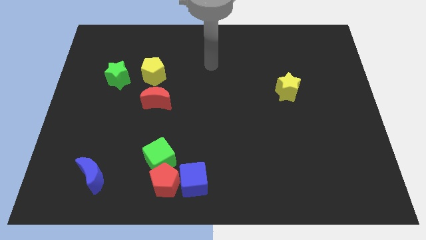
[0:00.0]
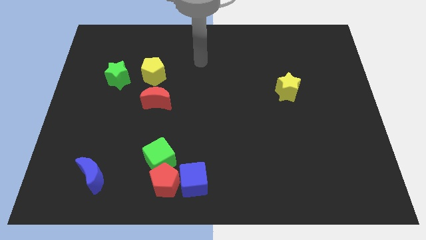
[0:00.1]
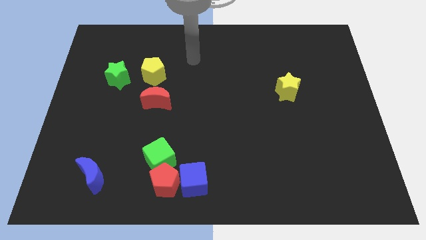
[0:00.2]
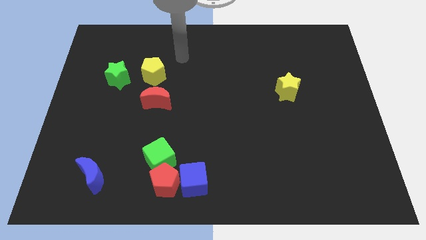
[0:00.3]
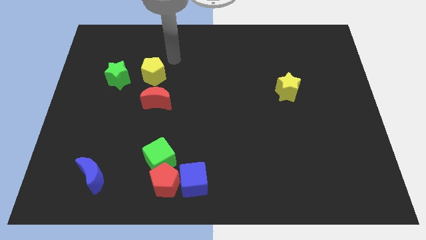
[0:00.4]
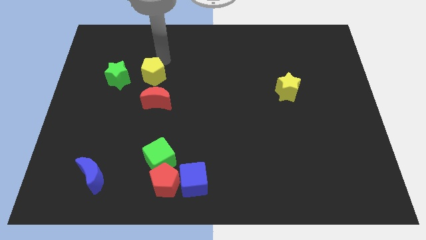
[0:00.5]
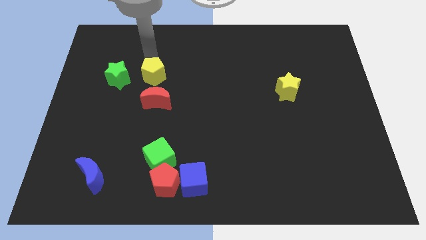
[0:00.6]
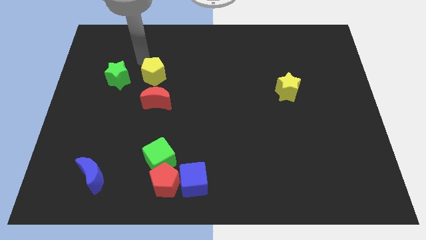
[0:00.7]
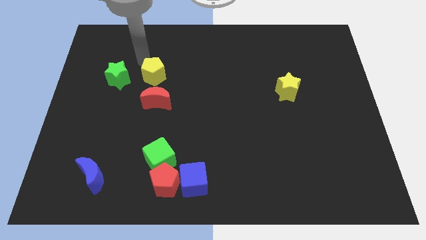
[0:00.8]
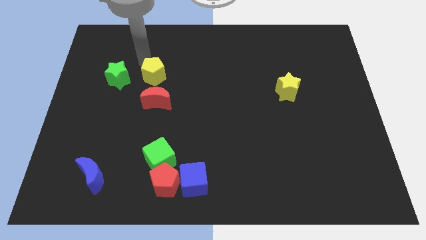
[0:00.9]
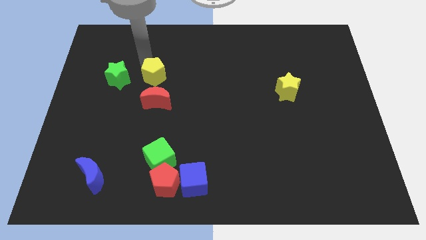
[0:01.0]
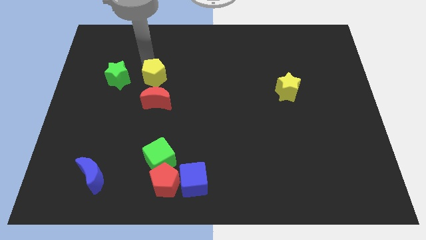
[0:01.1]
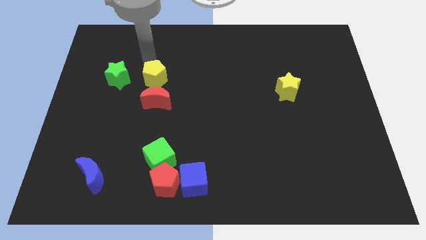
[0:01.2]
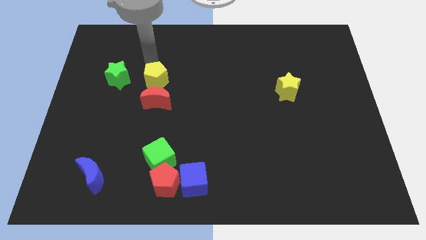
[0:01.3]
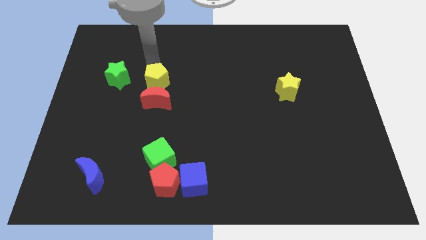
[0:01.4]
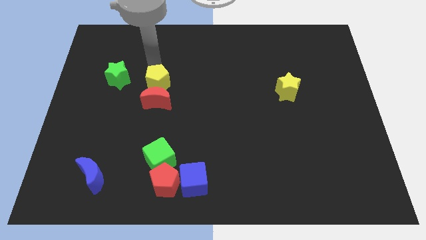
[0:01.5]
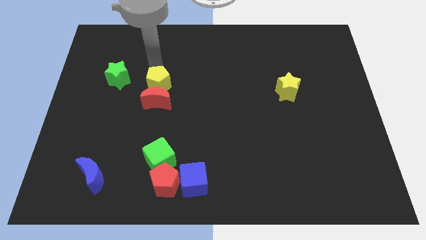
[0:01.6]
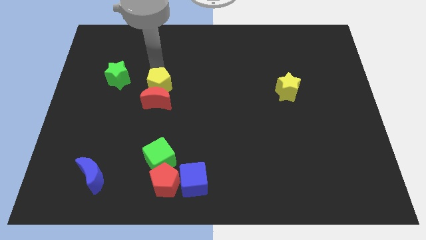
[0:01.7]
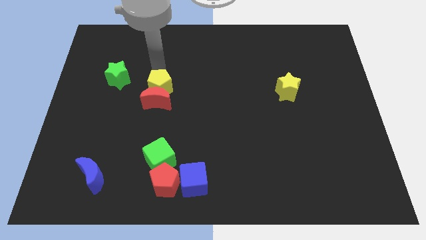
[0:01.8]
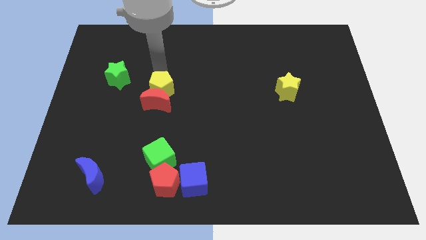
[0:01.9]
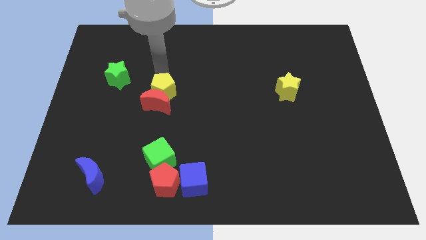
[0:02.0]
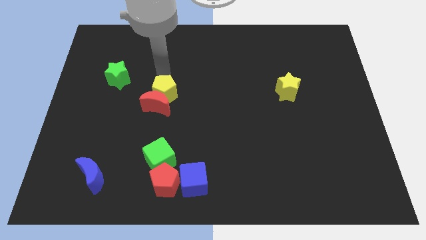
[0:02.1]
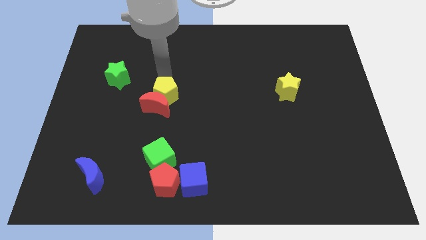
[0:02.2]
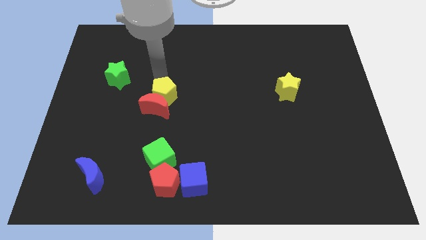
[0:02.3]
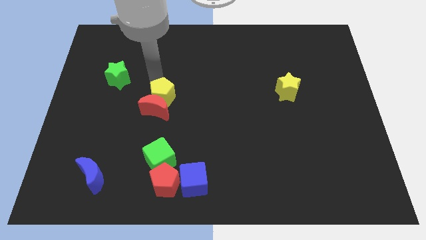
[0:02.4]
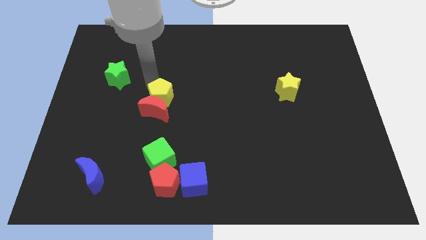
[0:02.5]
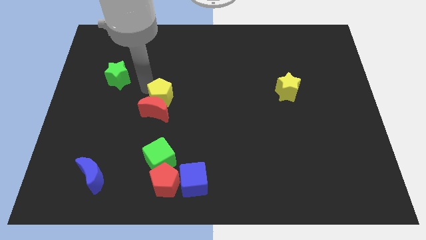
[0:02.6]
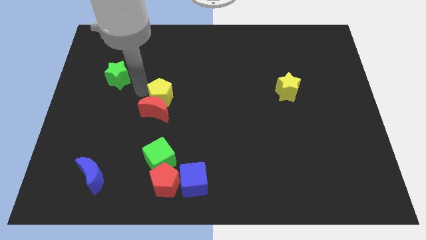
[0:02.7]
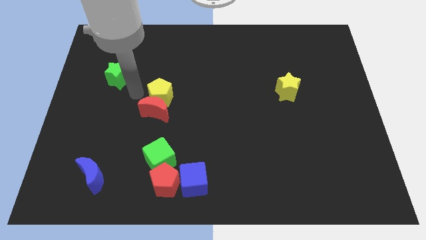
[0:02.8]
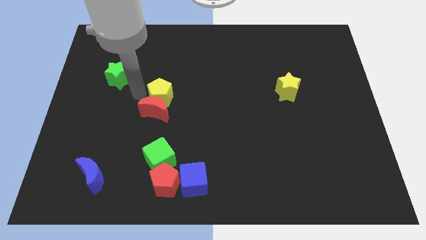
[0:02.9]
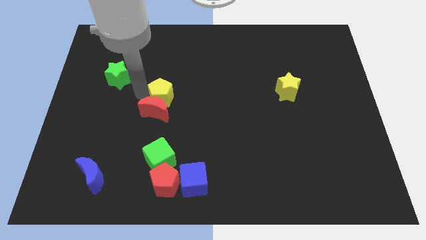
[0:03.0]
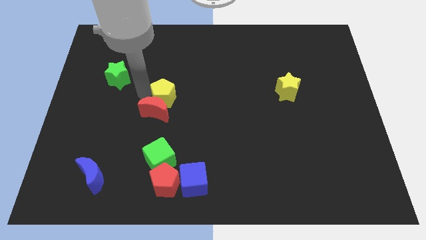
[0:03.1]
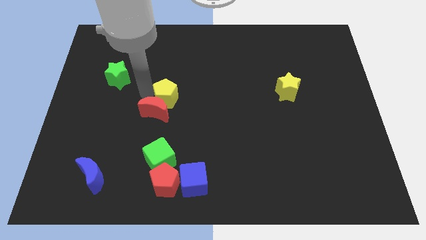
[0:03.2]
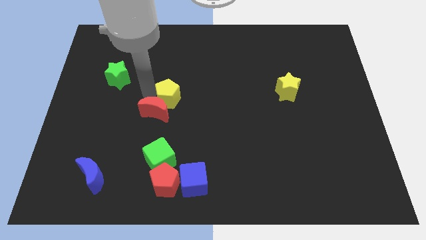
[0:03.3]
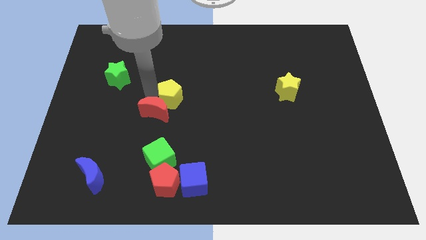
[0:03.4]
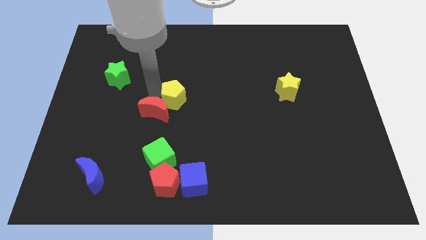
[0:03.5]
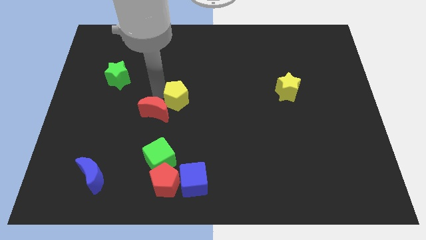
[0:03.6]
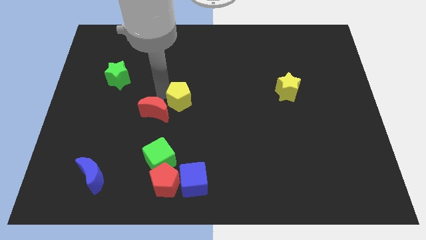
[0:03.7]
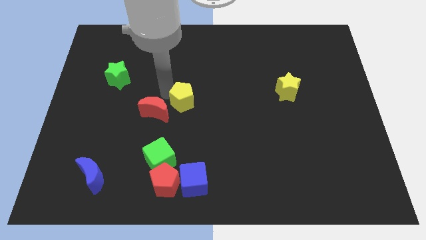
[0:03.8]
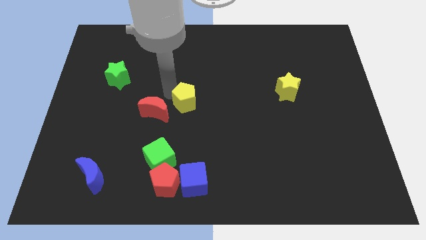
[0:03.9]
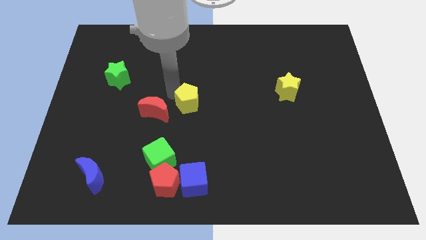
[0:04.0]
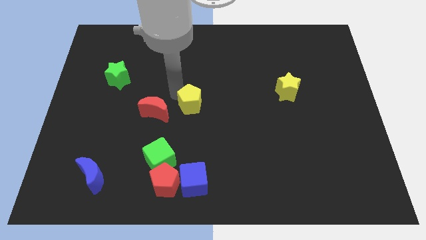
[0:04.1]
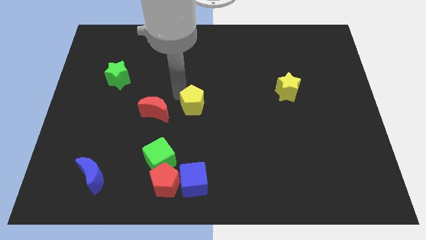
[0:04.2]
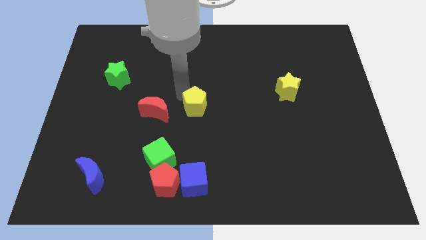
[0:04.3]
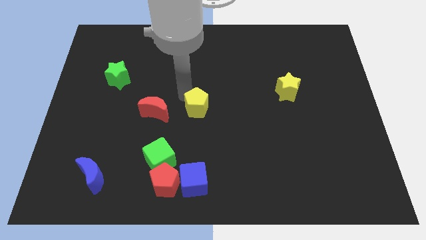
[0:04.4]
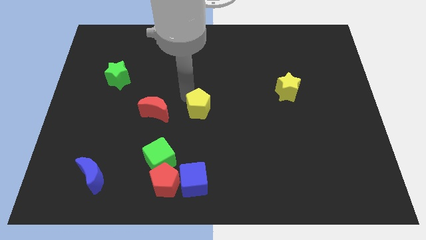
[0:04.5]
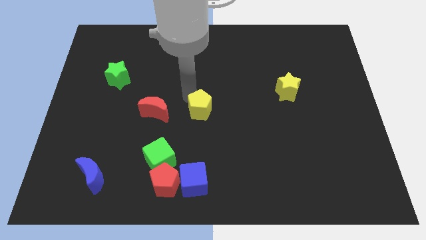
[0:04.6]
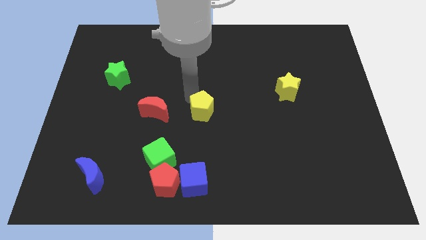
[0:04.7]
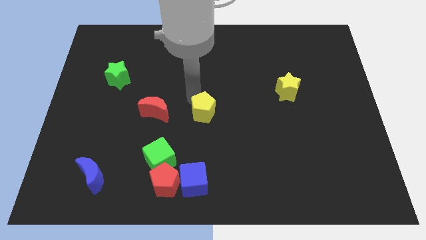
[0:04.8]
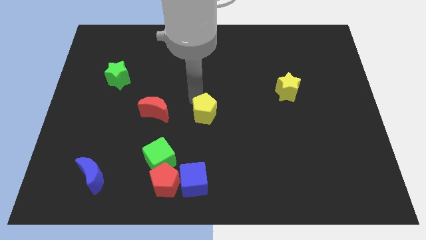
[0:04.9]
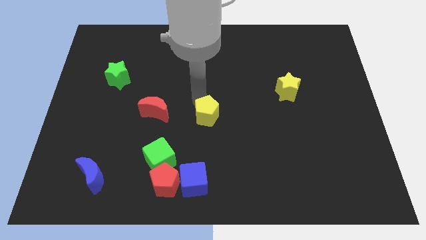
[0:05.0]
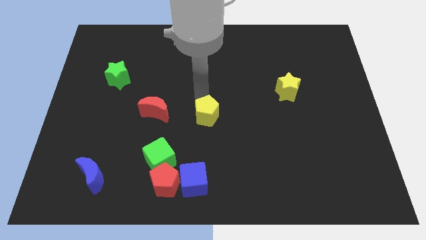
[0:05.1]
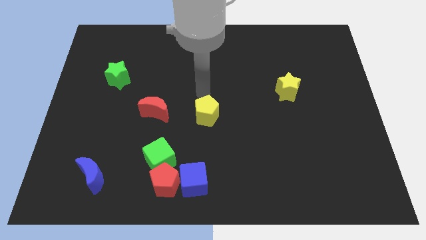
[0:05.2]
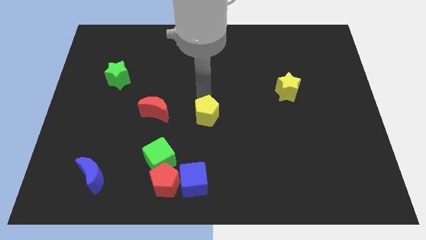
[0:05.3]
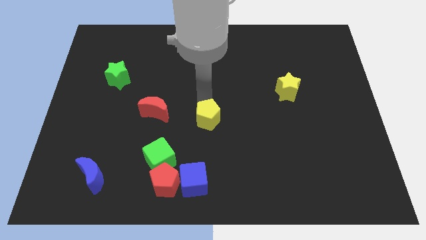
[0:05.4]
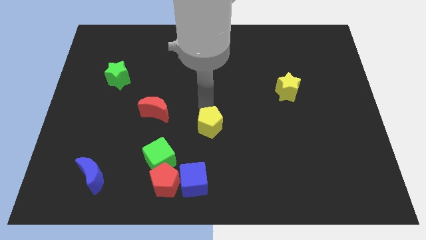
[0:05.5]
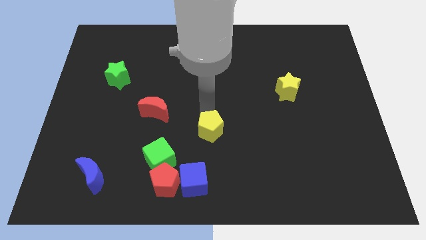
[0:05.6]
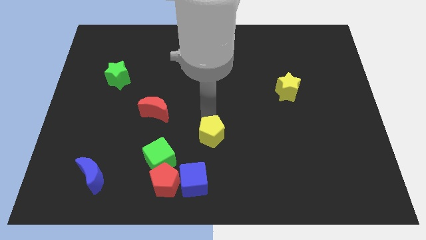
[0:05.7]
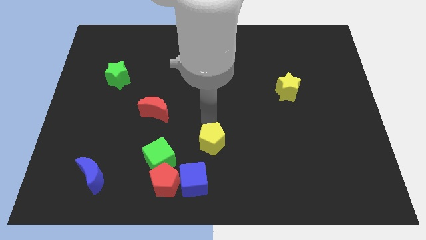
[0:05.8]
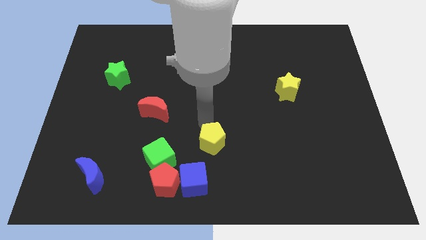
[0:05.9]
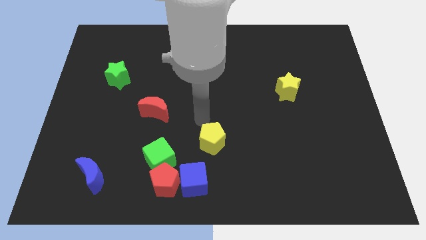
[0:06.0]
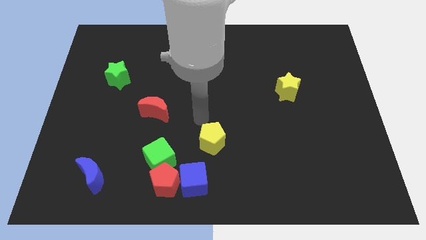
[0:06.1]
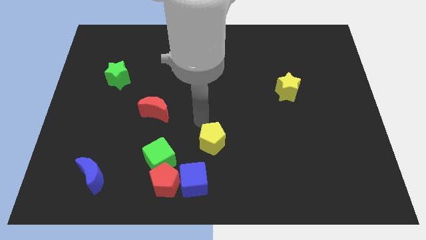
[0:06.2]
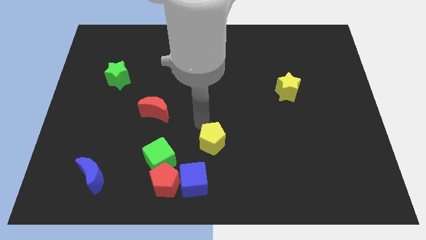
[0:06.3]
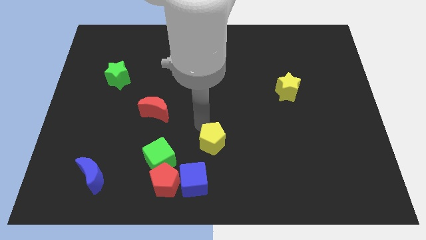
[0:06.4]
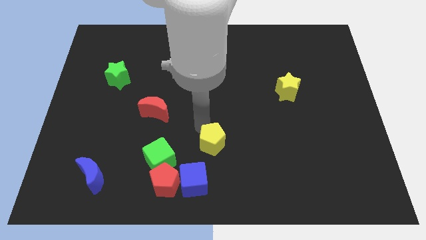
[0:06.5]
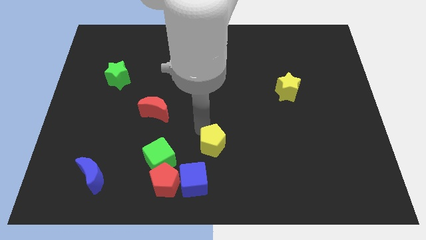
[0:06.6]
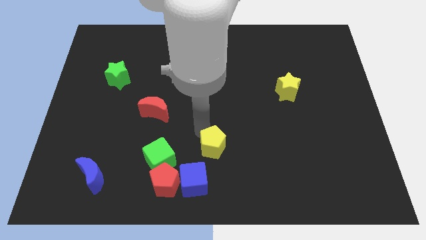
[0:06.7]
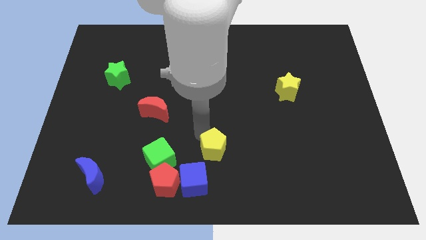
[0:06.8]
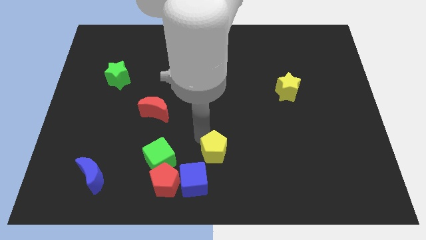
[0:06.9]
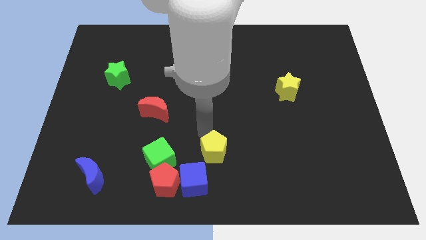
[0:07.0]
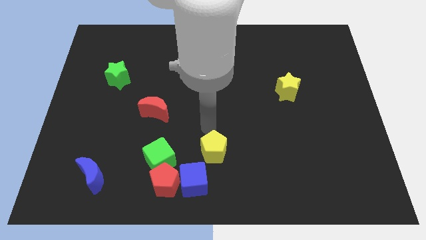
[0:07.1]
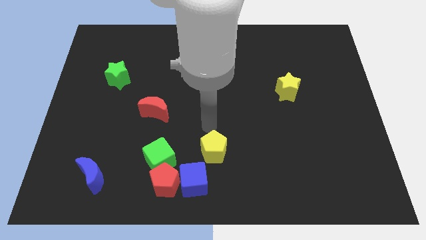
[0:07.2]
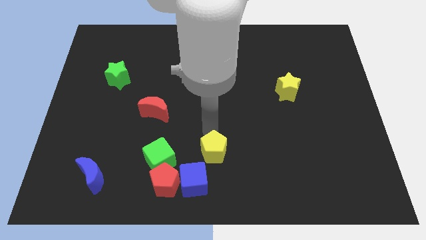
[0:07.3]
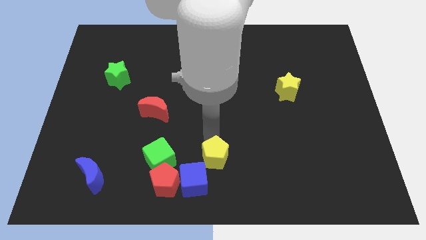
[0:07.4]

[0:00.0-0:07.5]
slide the yellow pentagon to the bottom side
